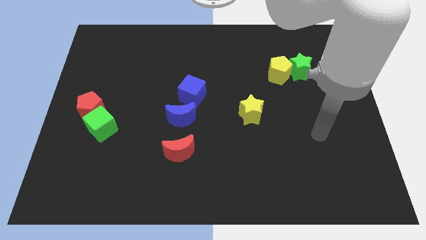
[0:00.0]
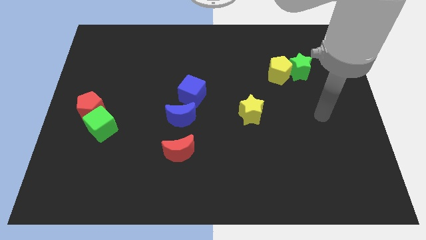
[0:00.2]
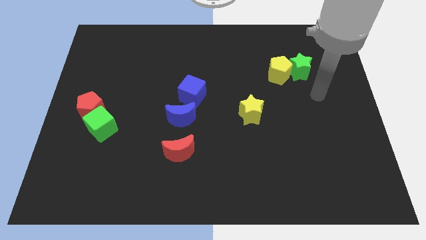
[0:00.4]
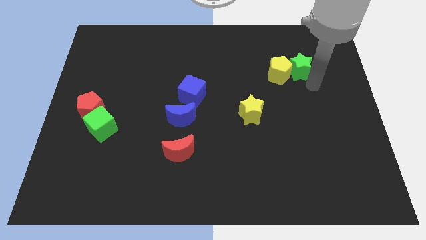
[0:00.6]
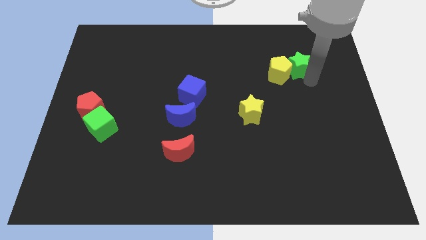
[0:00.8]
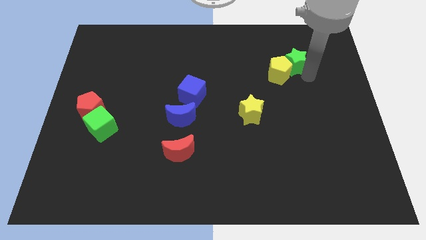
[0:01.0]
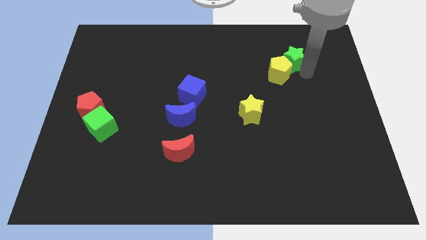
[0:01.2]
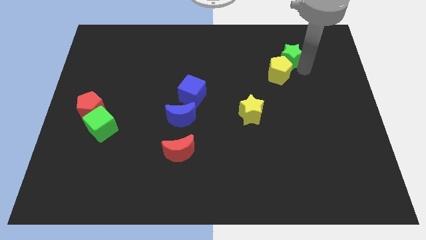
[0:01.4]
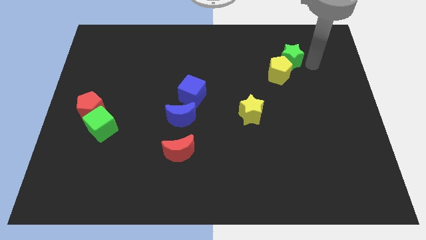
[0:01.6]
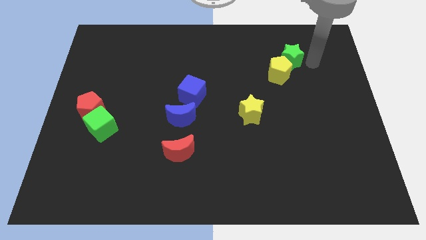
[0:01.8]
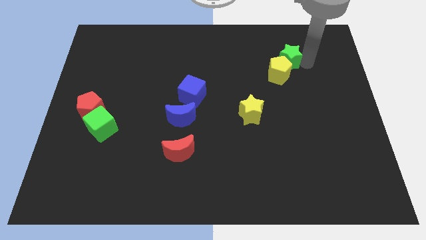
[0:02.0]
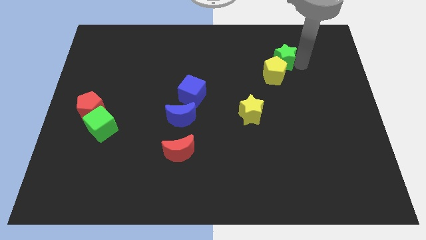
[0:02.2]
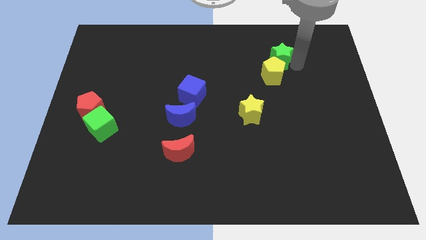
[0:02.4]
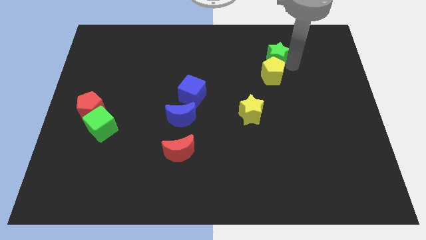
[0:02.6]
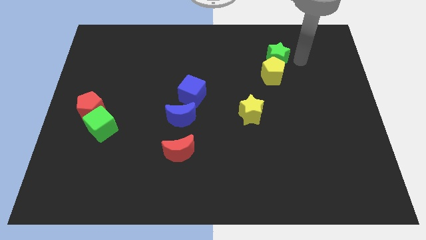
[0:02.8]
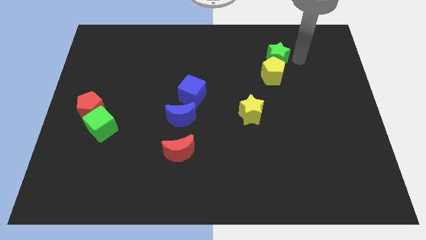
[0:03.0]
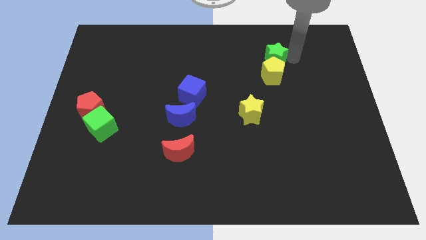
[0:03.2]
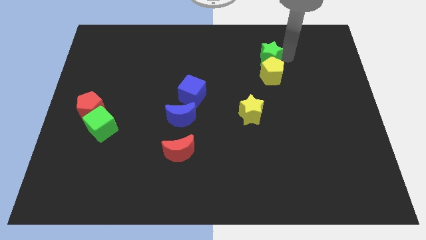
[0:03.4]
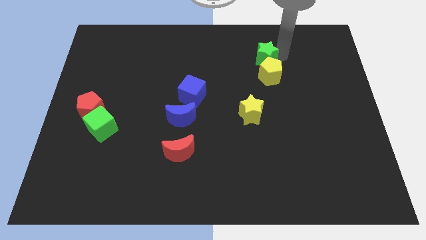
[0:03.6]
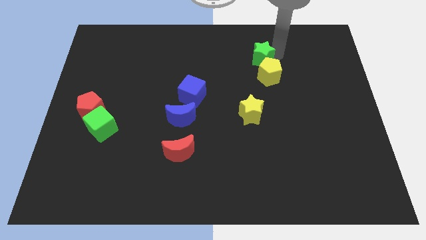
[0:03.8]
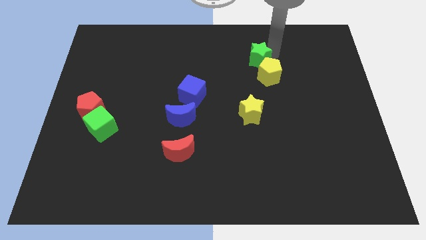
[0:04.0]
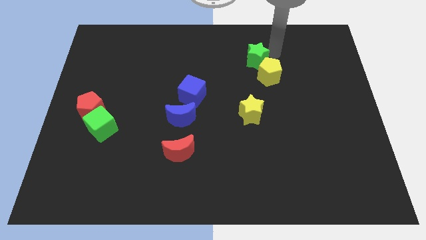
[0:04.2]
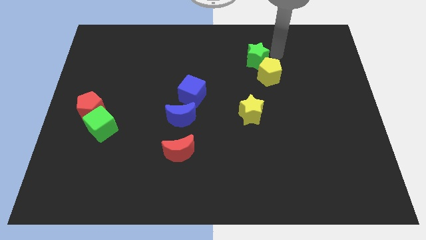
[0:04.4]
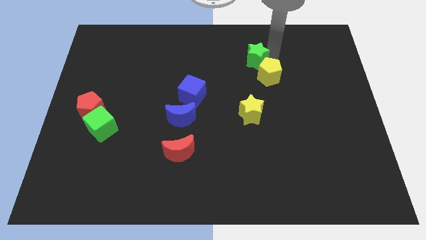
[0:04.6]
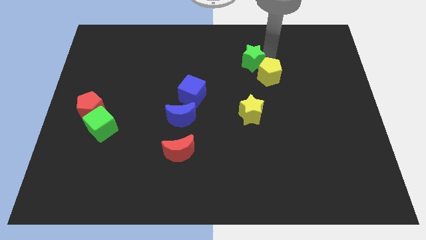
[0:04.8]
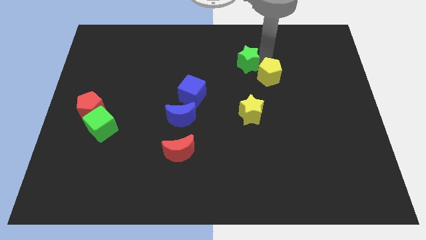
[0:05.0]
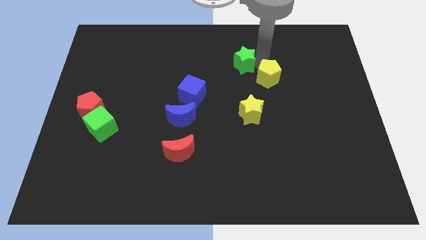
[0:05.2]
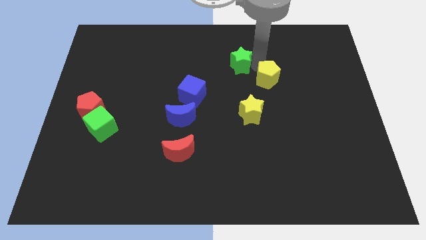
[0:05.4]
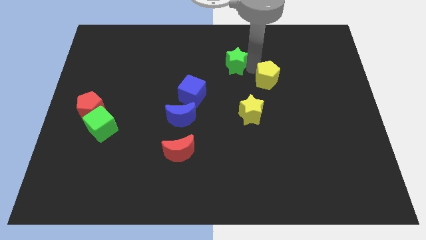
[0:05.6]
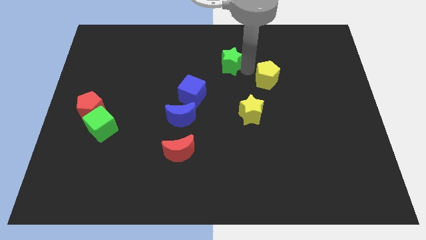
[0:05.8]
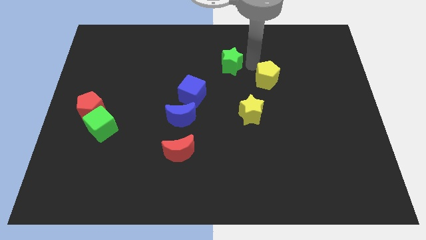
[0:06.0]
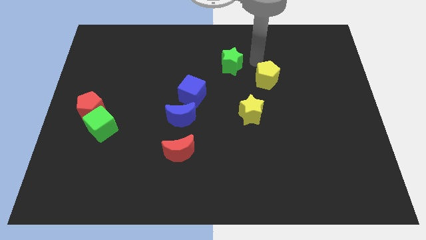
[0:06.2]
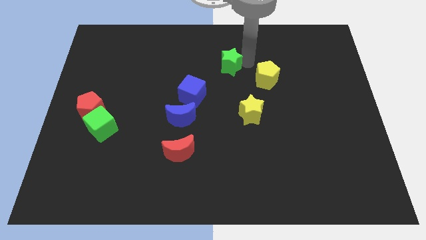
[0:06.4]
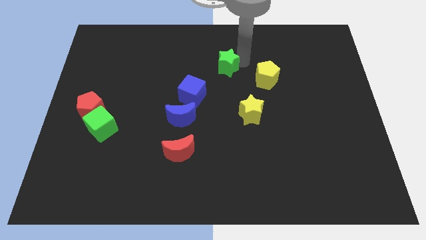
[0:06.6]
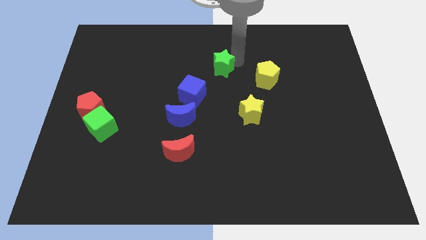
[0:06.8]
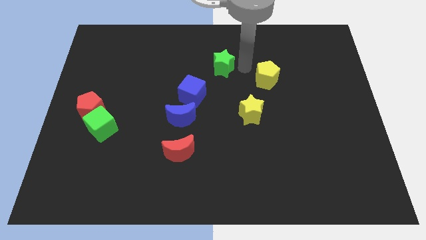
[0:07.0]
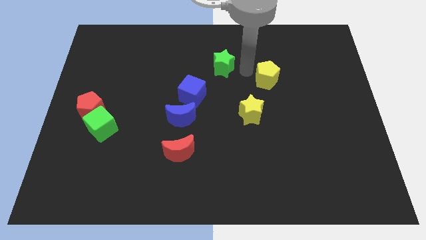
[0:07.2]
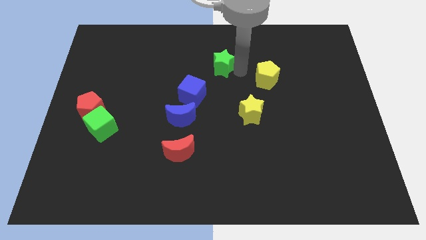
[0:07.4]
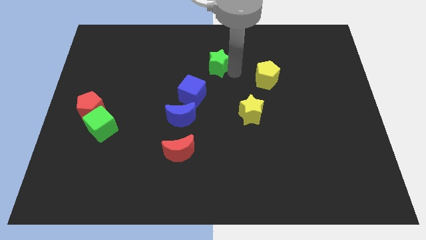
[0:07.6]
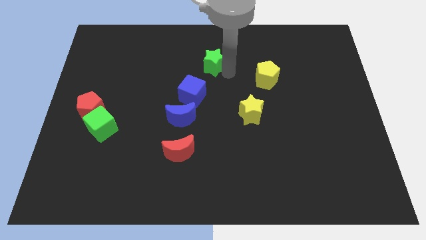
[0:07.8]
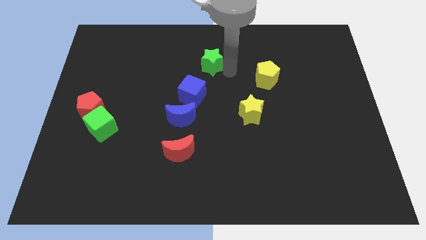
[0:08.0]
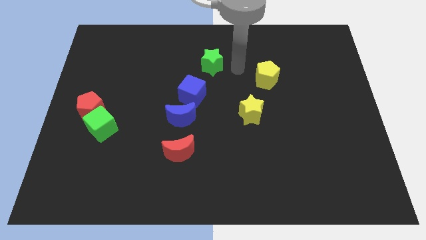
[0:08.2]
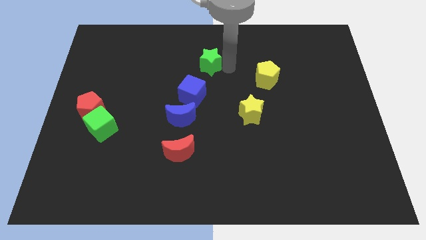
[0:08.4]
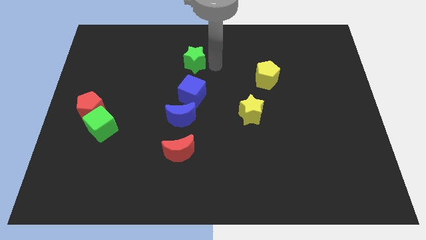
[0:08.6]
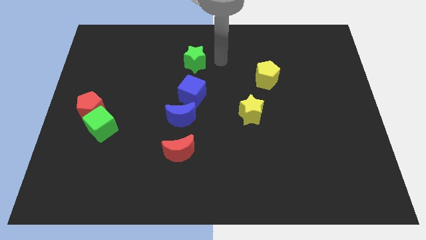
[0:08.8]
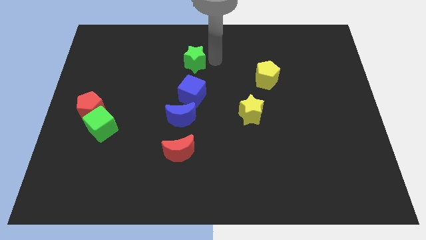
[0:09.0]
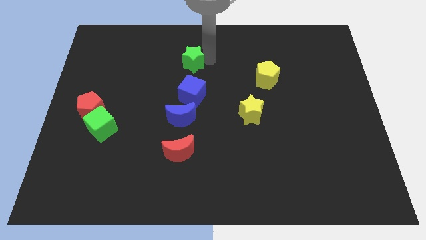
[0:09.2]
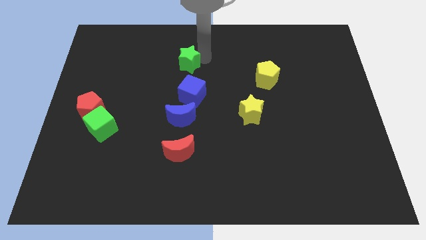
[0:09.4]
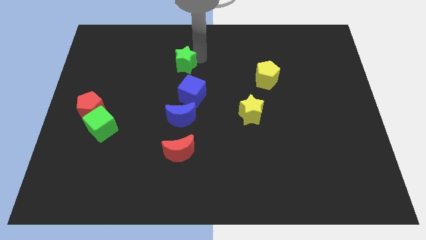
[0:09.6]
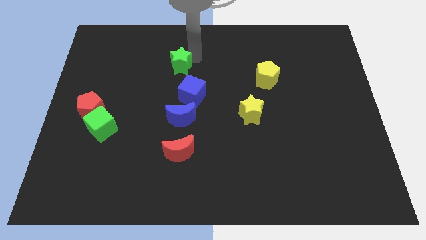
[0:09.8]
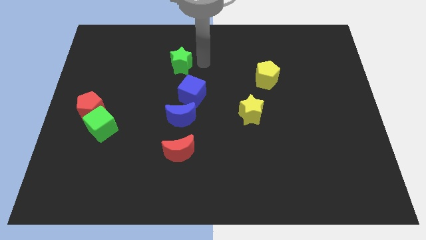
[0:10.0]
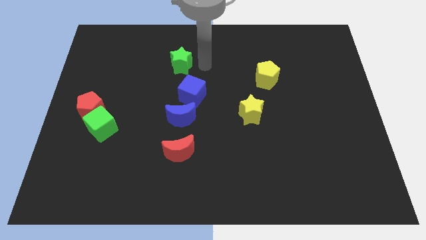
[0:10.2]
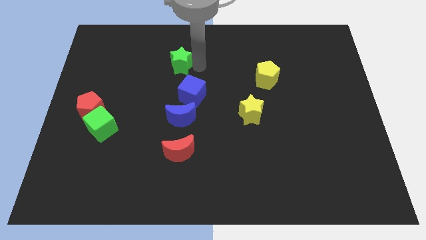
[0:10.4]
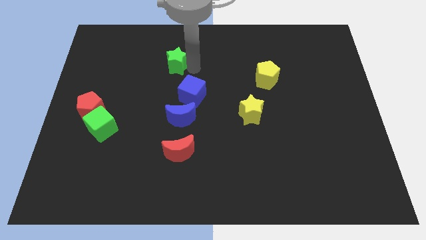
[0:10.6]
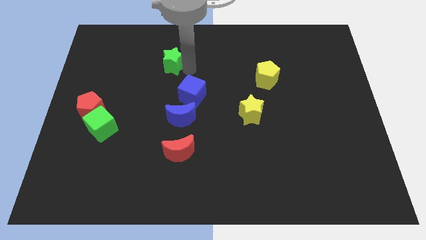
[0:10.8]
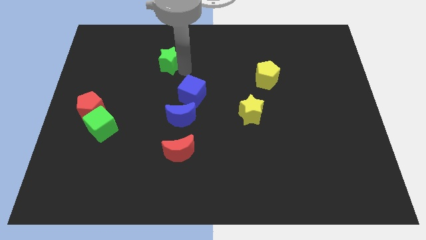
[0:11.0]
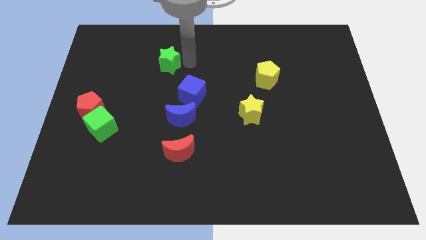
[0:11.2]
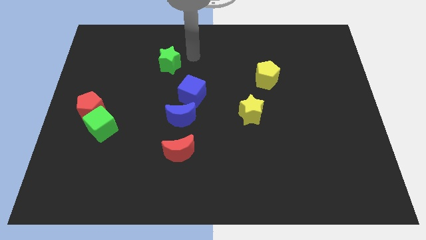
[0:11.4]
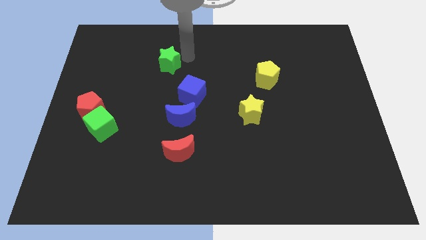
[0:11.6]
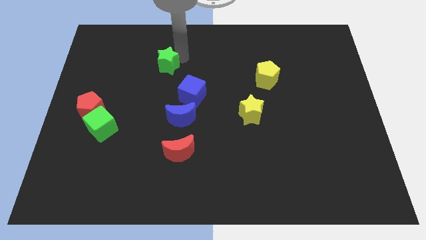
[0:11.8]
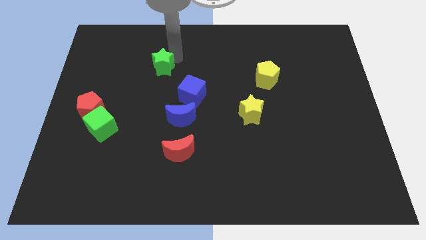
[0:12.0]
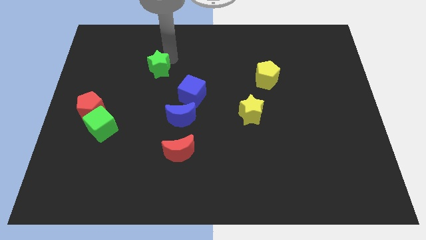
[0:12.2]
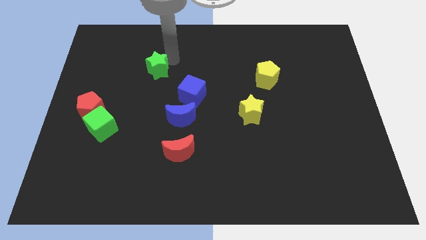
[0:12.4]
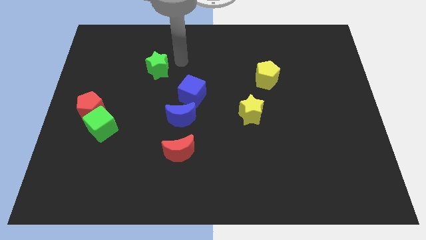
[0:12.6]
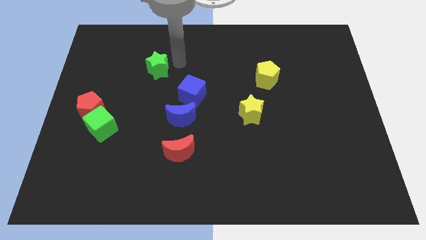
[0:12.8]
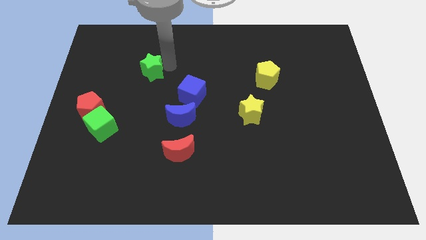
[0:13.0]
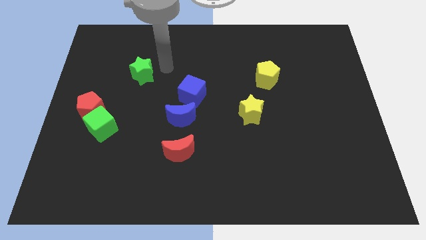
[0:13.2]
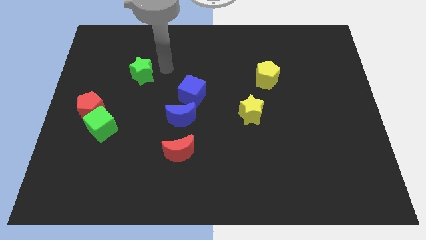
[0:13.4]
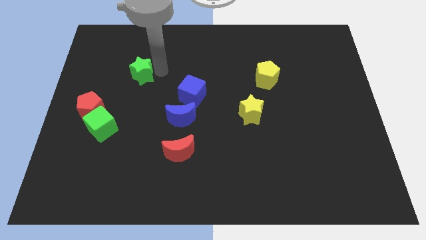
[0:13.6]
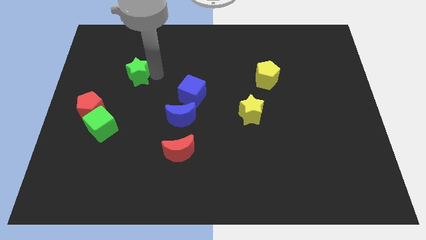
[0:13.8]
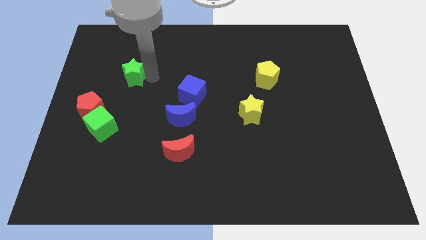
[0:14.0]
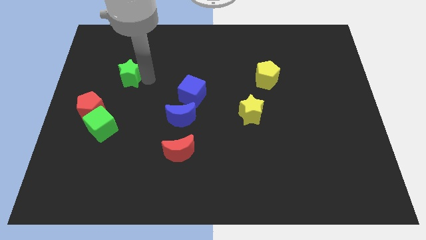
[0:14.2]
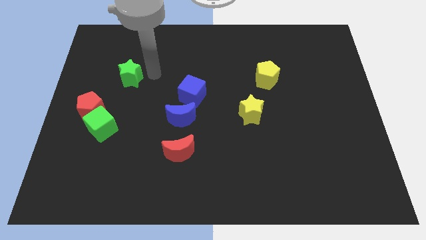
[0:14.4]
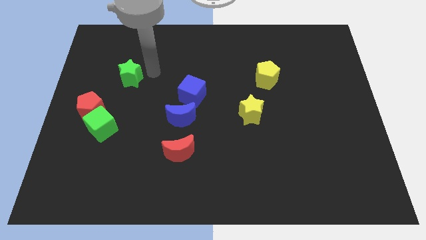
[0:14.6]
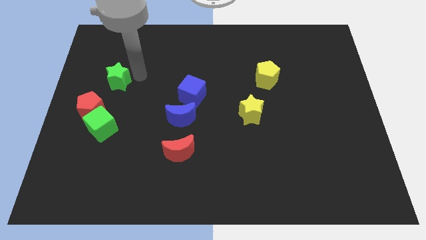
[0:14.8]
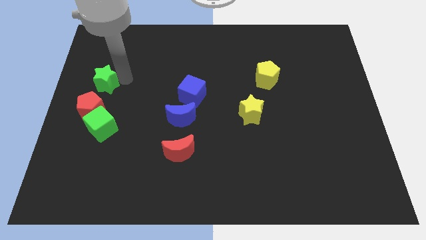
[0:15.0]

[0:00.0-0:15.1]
put the green star to the left side

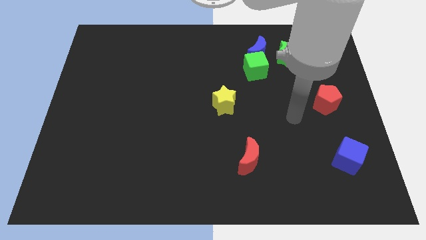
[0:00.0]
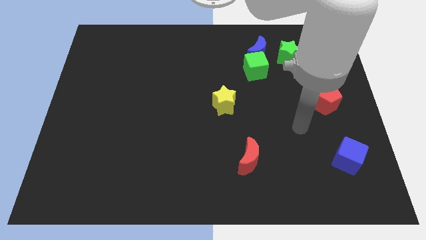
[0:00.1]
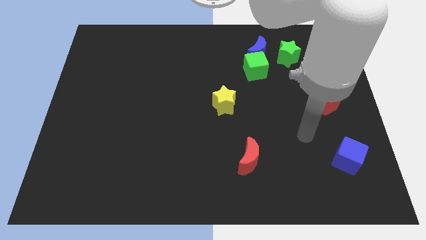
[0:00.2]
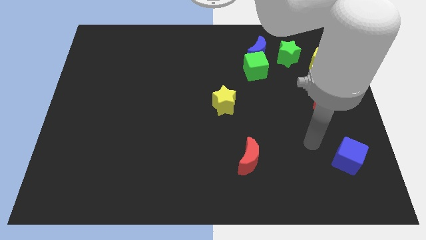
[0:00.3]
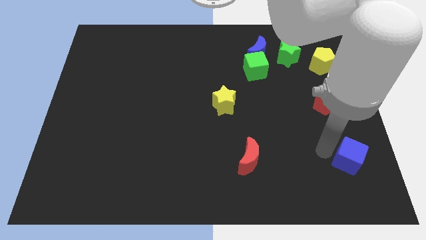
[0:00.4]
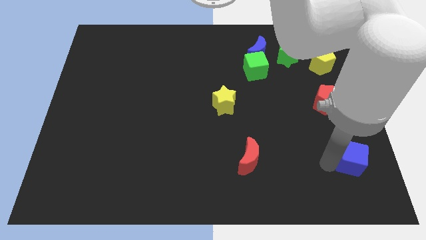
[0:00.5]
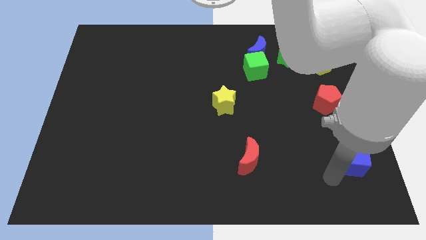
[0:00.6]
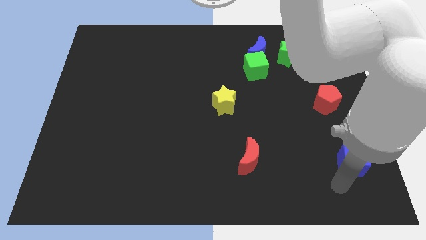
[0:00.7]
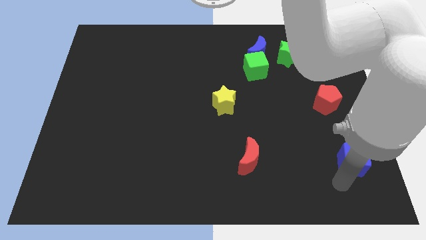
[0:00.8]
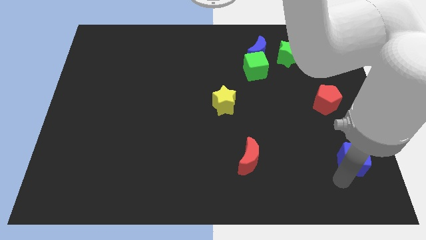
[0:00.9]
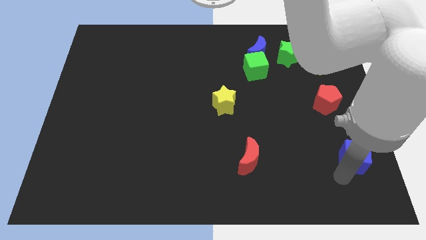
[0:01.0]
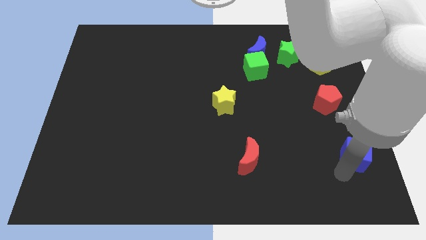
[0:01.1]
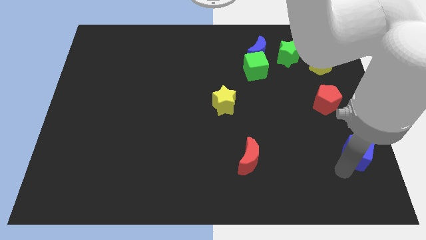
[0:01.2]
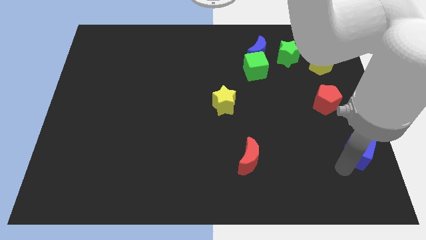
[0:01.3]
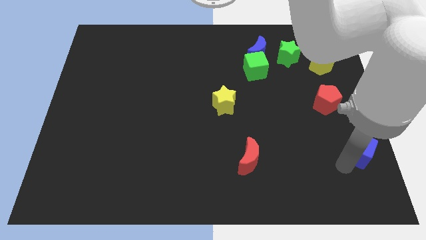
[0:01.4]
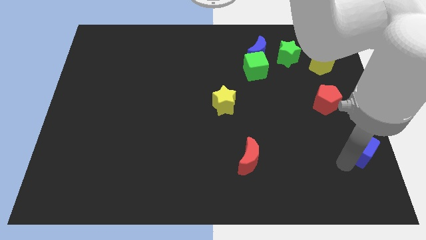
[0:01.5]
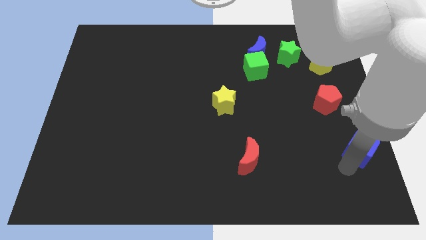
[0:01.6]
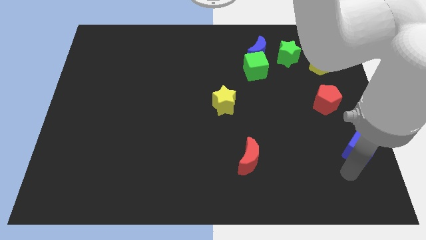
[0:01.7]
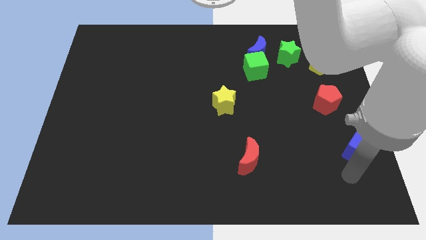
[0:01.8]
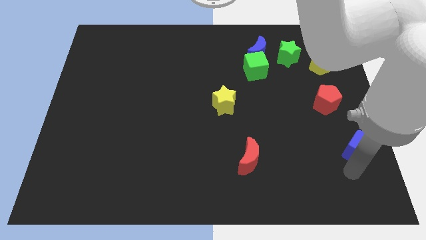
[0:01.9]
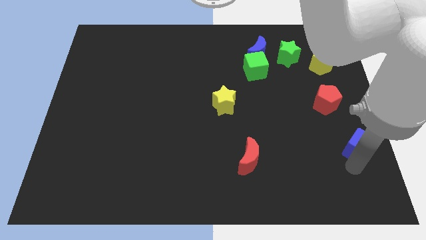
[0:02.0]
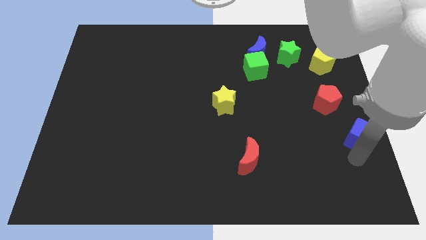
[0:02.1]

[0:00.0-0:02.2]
put the blue cube to the right side
